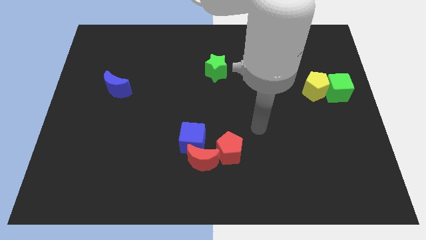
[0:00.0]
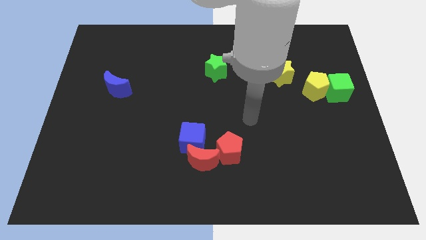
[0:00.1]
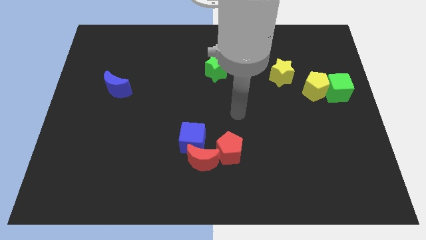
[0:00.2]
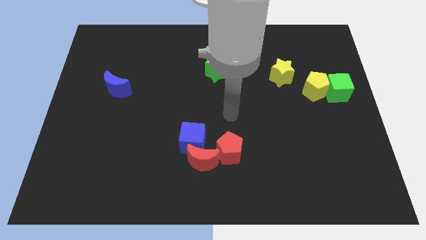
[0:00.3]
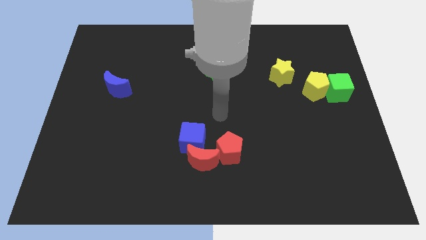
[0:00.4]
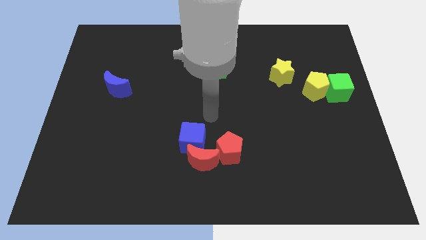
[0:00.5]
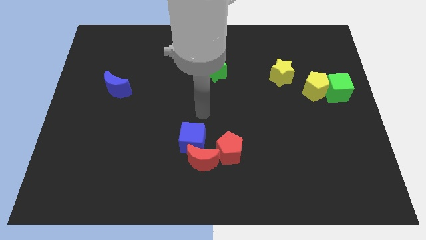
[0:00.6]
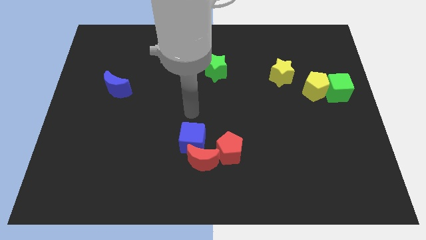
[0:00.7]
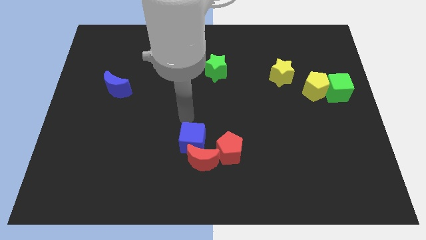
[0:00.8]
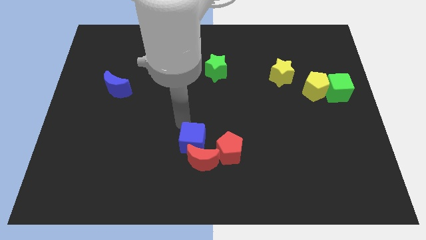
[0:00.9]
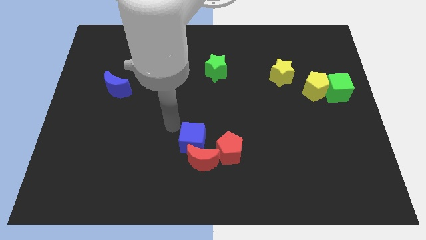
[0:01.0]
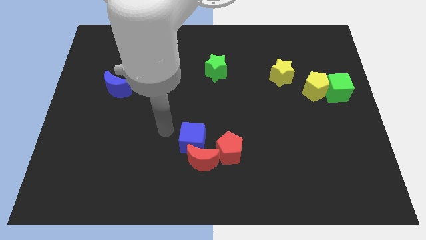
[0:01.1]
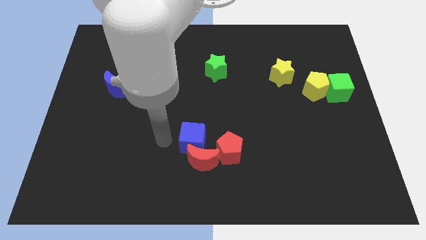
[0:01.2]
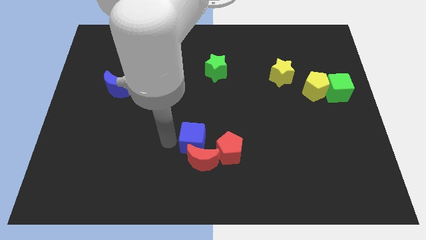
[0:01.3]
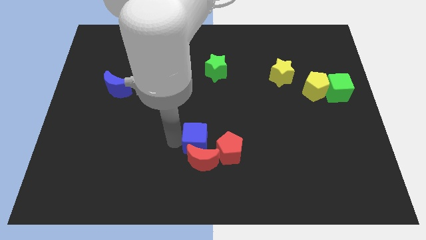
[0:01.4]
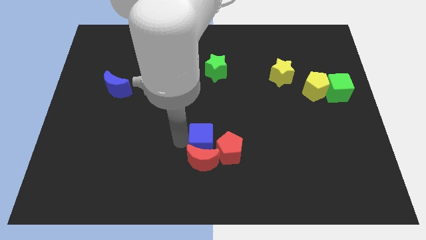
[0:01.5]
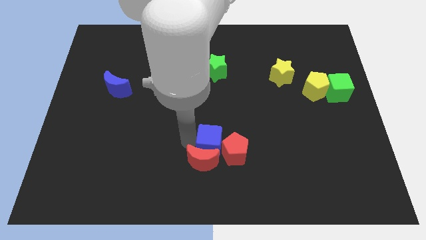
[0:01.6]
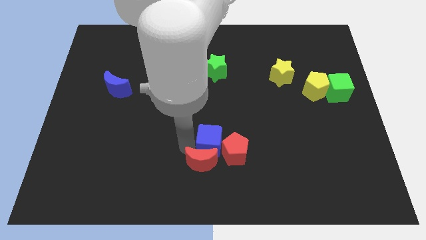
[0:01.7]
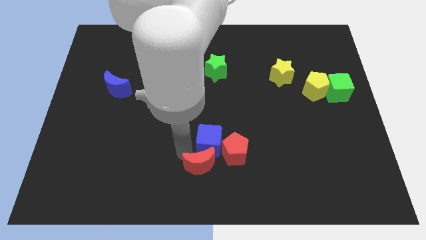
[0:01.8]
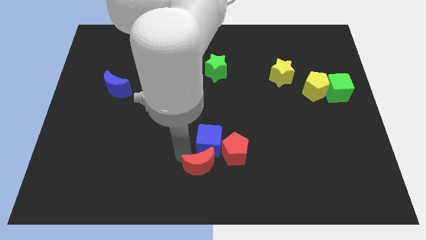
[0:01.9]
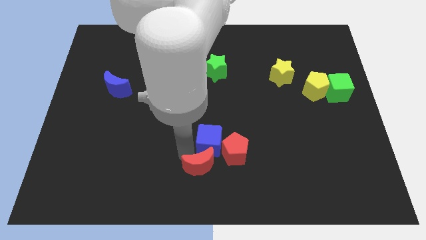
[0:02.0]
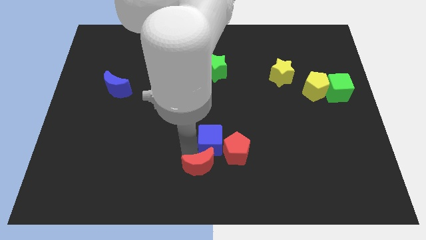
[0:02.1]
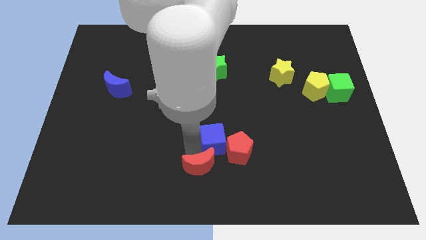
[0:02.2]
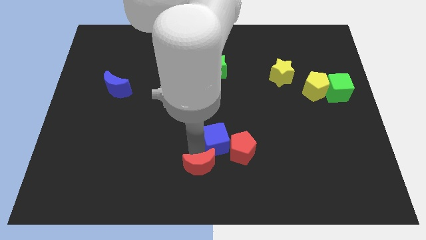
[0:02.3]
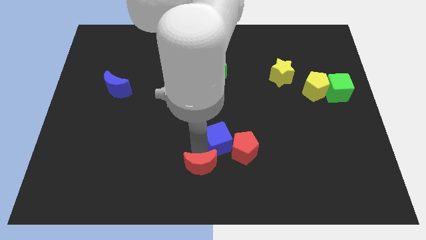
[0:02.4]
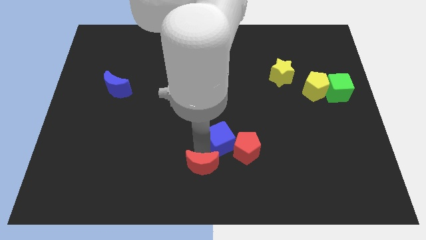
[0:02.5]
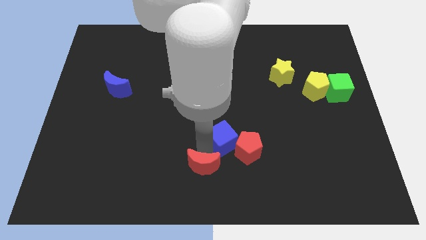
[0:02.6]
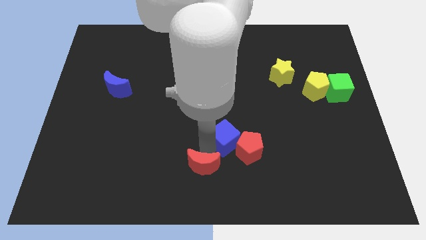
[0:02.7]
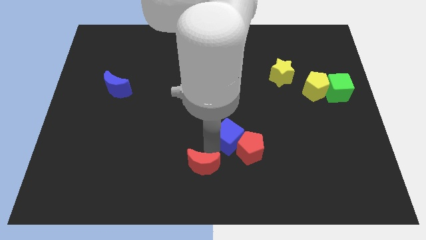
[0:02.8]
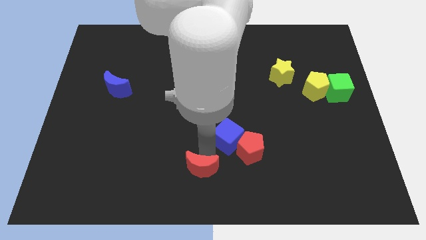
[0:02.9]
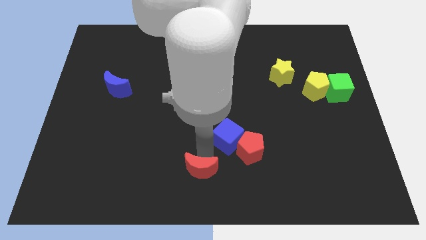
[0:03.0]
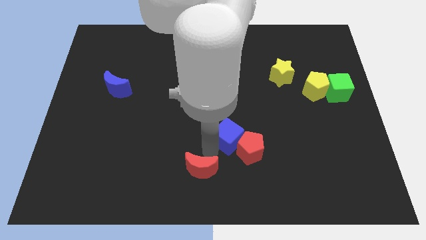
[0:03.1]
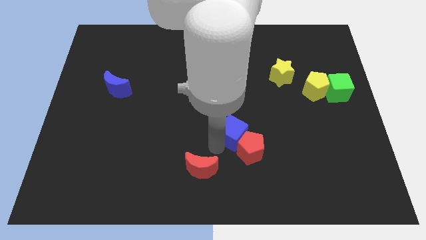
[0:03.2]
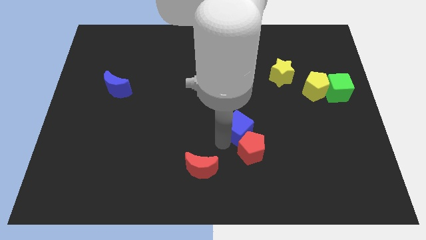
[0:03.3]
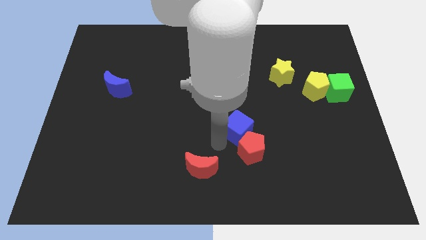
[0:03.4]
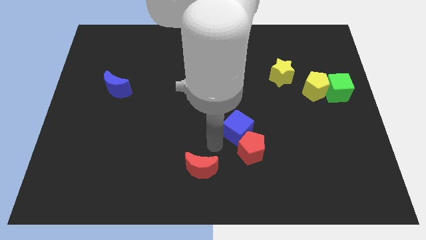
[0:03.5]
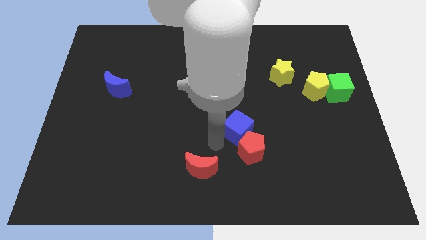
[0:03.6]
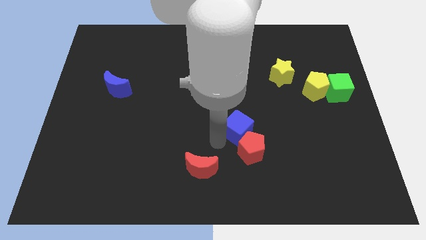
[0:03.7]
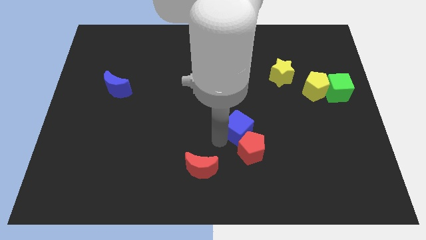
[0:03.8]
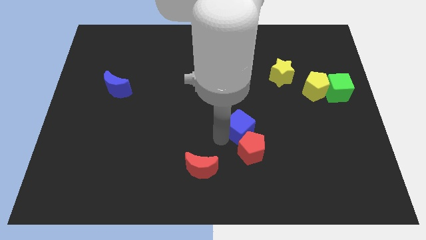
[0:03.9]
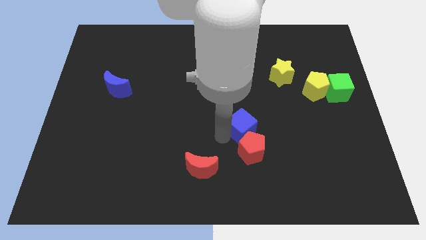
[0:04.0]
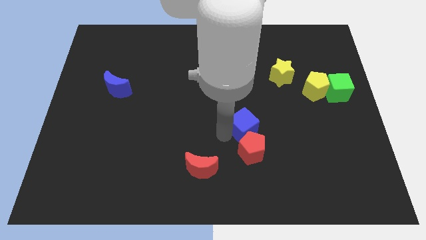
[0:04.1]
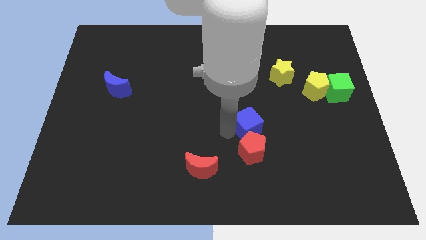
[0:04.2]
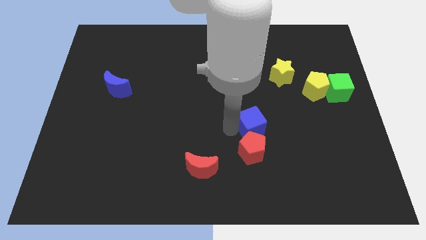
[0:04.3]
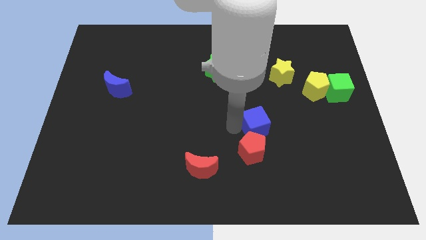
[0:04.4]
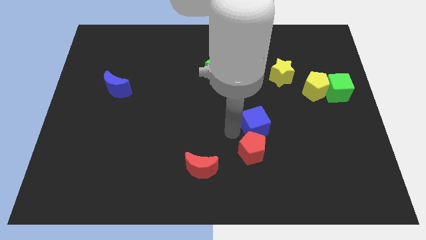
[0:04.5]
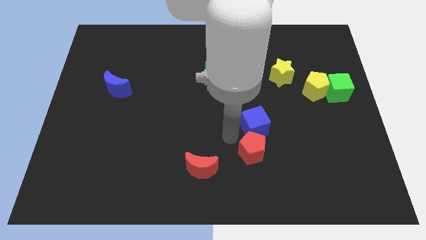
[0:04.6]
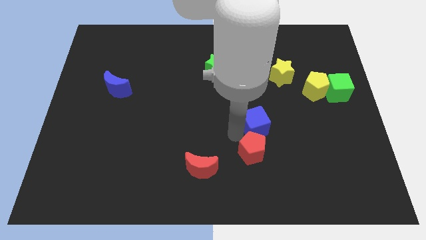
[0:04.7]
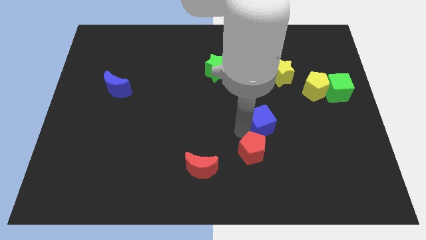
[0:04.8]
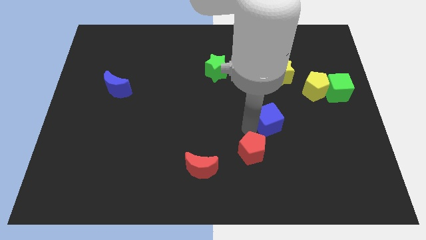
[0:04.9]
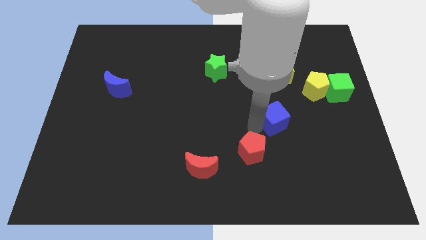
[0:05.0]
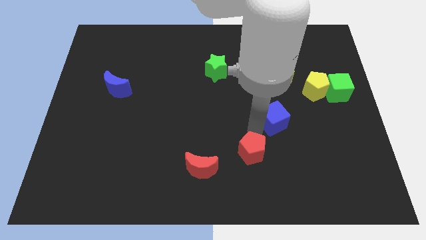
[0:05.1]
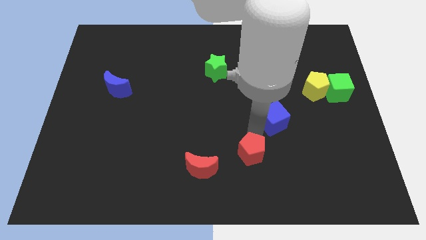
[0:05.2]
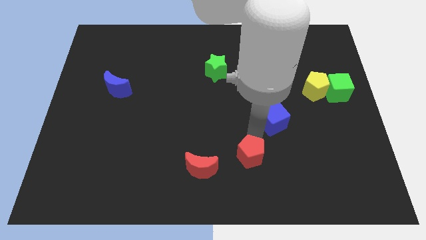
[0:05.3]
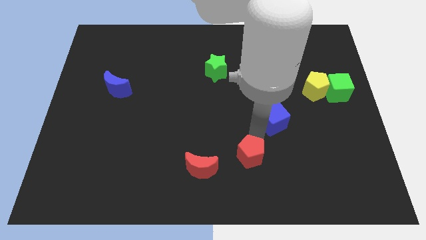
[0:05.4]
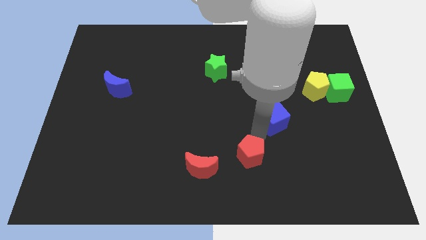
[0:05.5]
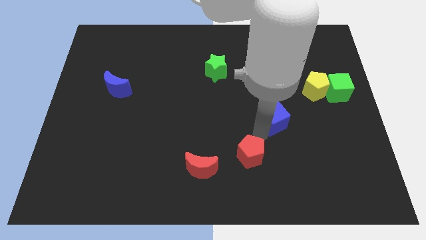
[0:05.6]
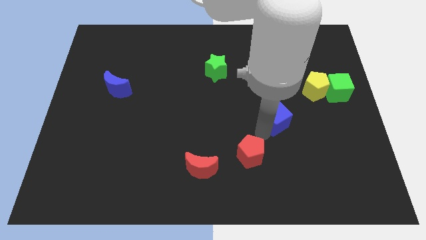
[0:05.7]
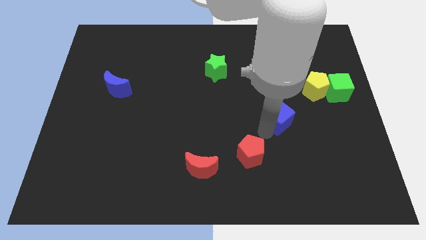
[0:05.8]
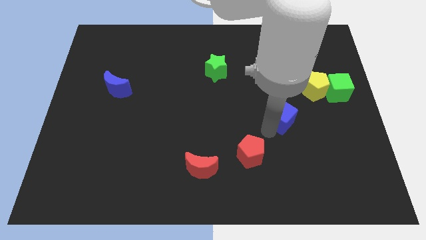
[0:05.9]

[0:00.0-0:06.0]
push the blue cube to the bottom left side of the yellow pentagon

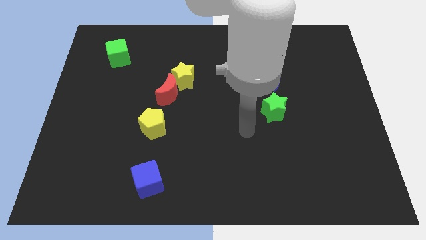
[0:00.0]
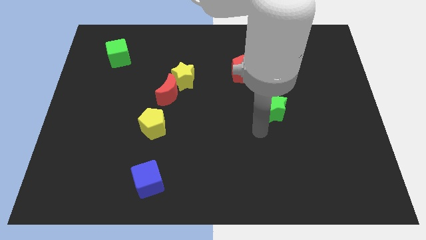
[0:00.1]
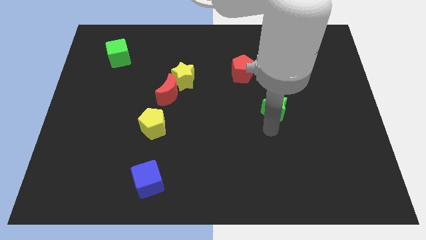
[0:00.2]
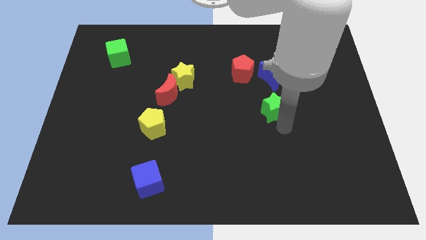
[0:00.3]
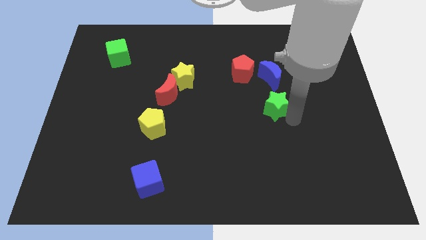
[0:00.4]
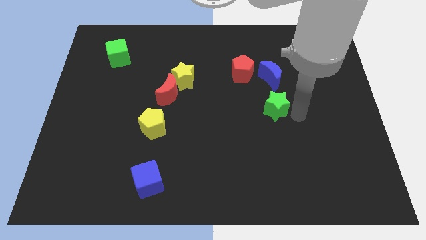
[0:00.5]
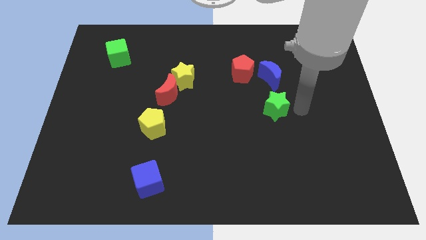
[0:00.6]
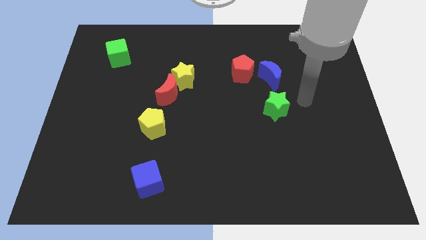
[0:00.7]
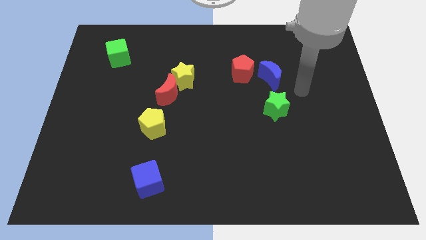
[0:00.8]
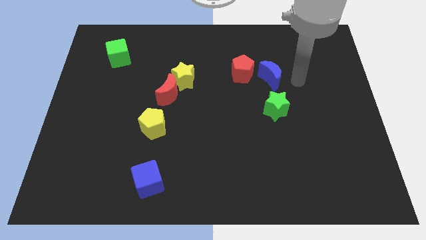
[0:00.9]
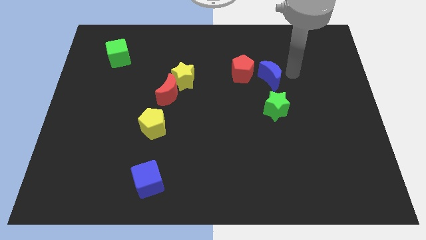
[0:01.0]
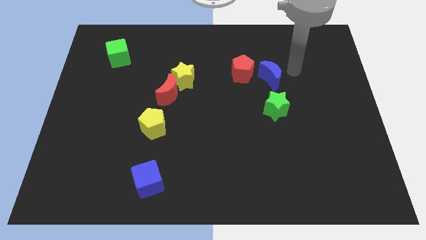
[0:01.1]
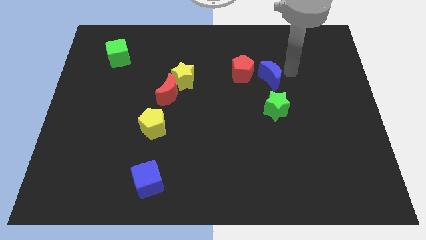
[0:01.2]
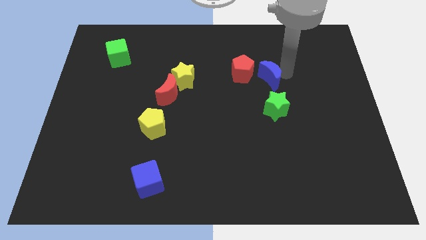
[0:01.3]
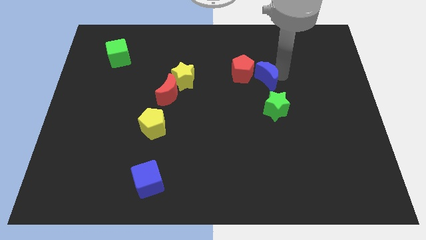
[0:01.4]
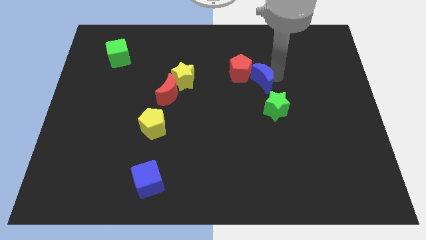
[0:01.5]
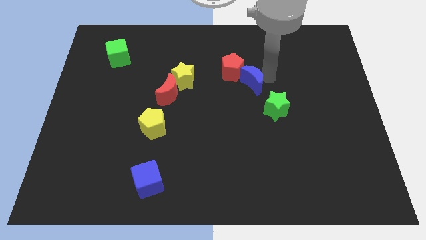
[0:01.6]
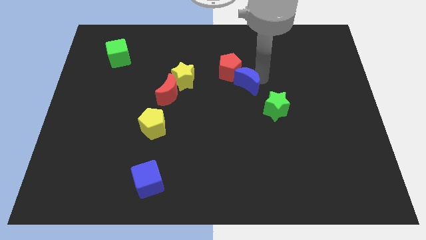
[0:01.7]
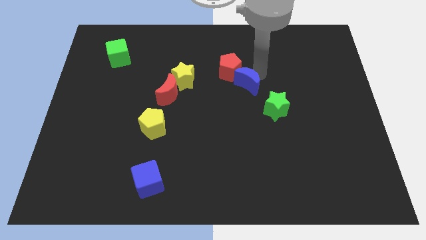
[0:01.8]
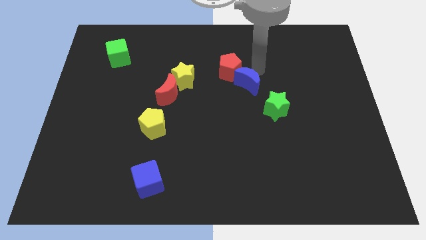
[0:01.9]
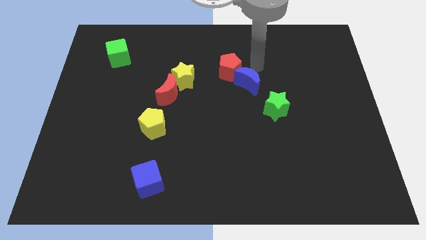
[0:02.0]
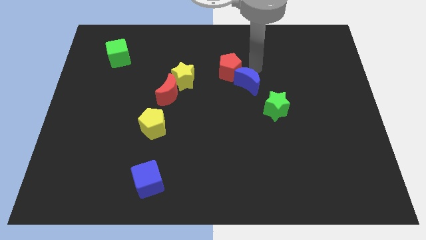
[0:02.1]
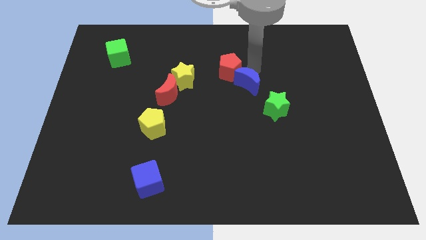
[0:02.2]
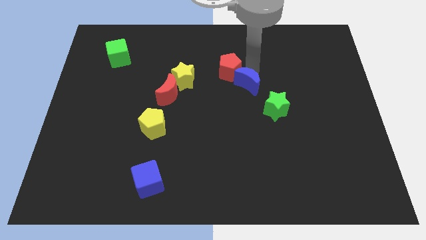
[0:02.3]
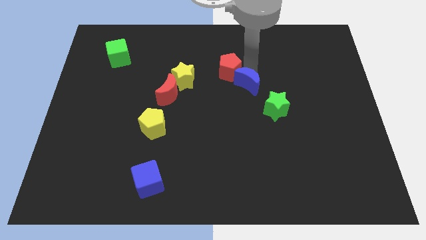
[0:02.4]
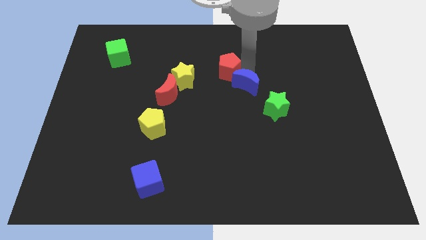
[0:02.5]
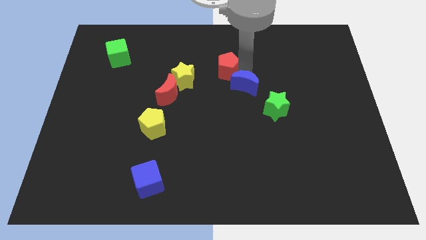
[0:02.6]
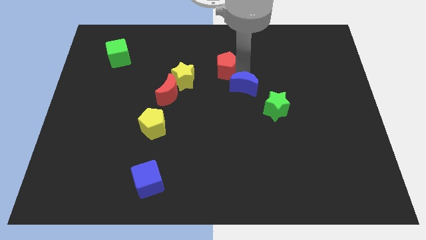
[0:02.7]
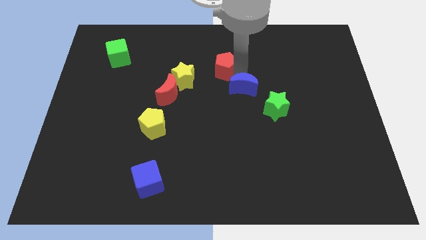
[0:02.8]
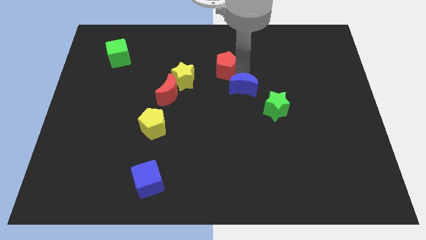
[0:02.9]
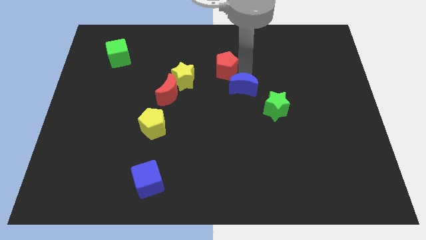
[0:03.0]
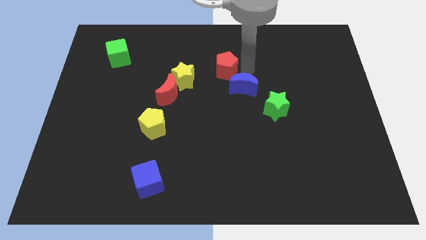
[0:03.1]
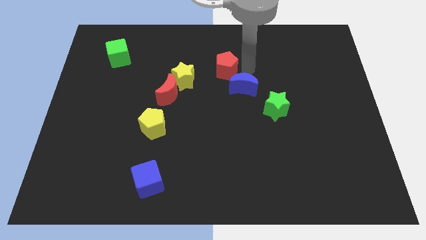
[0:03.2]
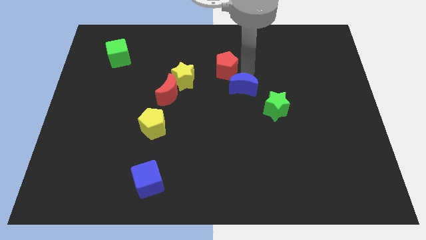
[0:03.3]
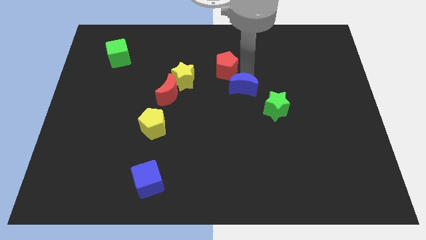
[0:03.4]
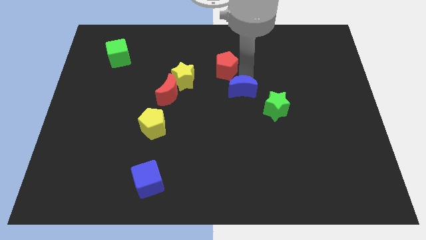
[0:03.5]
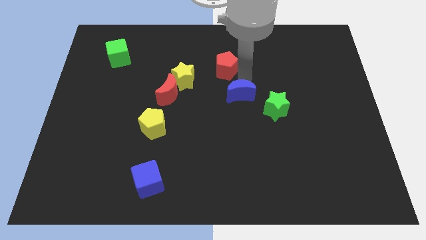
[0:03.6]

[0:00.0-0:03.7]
slide the blue moon left of the green star
